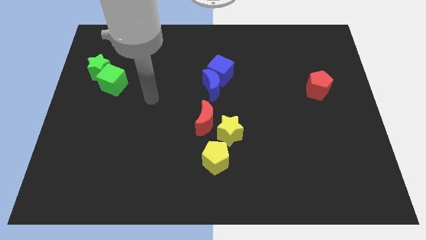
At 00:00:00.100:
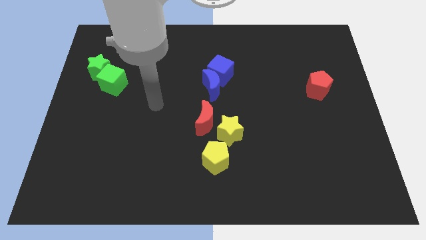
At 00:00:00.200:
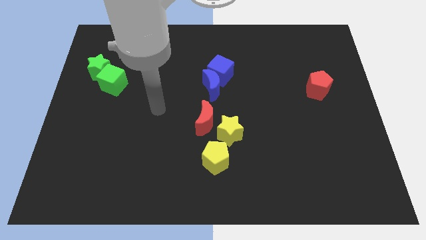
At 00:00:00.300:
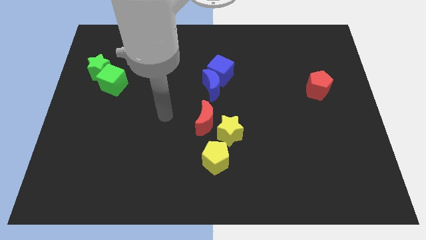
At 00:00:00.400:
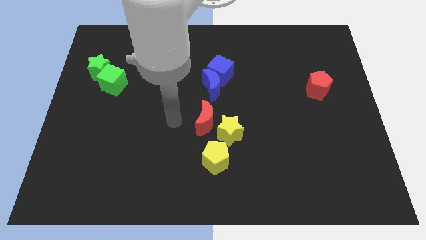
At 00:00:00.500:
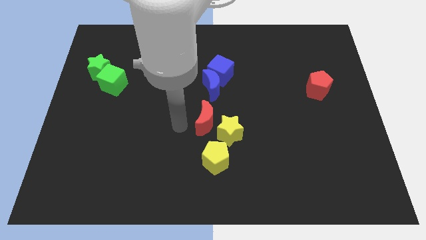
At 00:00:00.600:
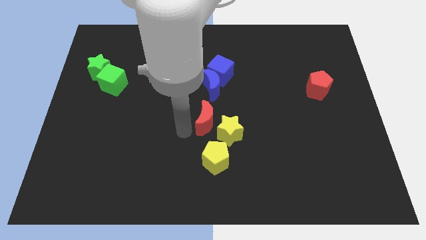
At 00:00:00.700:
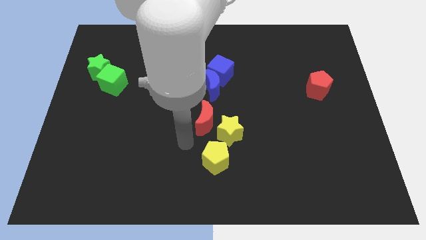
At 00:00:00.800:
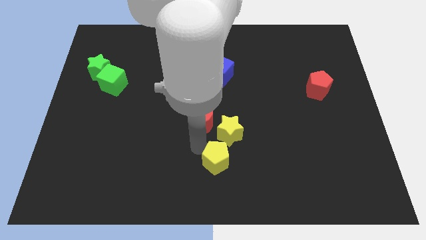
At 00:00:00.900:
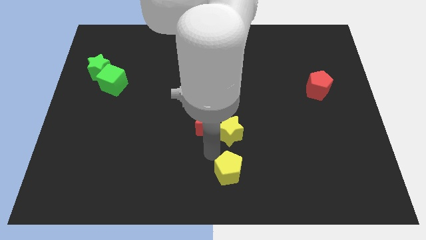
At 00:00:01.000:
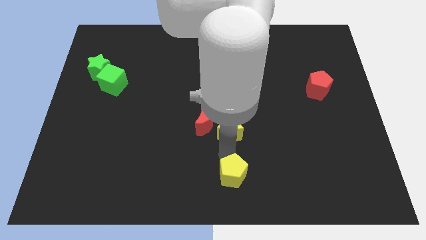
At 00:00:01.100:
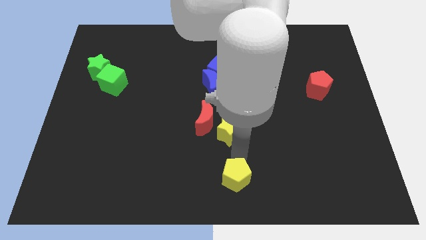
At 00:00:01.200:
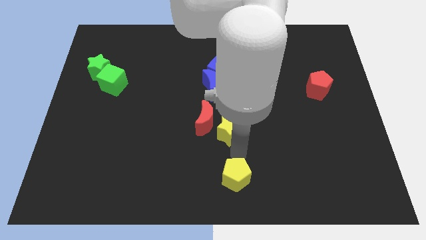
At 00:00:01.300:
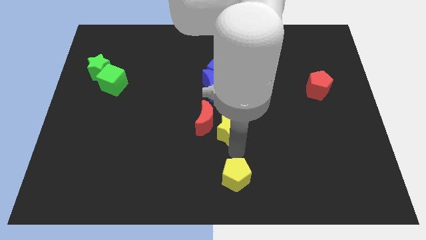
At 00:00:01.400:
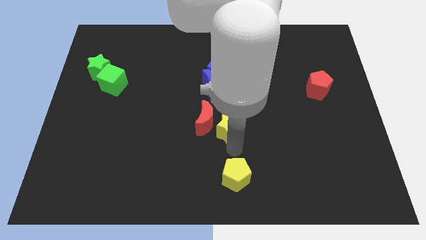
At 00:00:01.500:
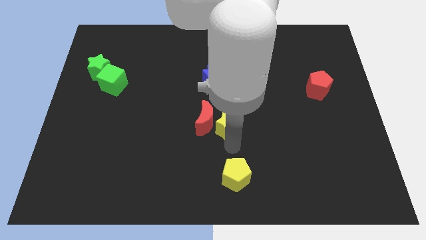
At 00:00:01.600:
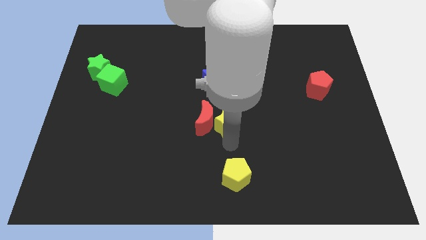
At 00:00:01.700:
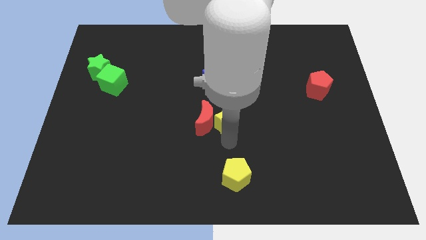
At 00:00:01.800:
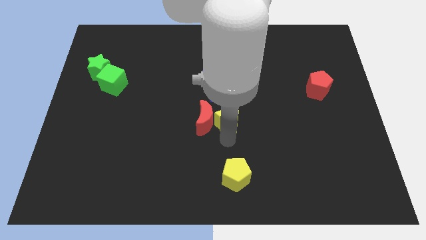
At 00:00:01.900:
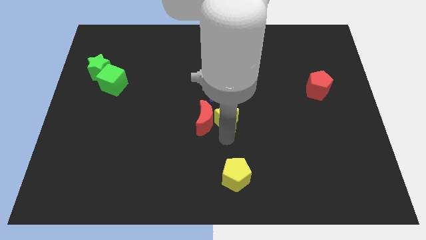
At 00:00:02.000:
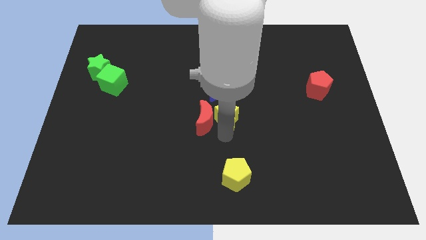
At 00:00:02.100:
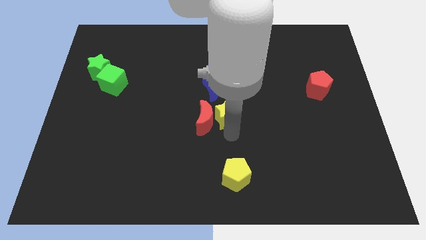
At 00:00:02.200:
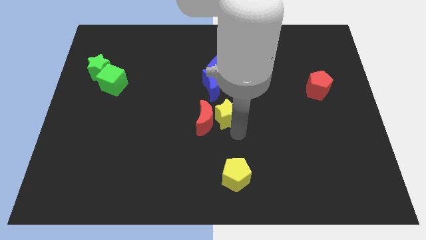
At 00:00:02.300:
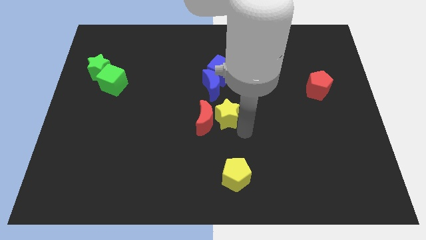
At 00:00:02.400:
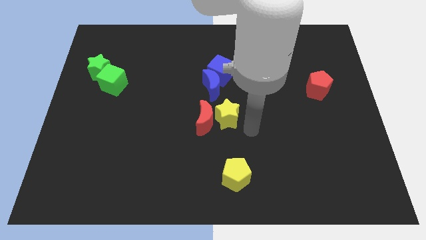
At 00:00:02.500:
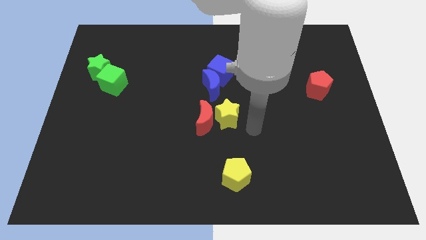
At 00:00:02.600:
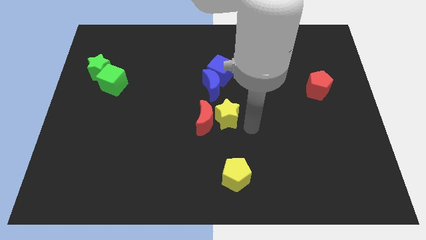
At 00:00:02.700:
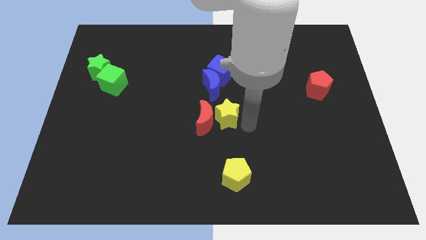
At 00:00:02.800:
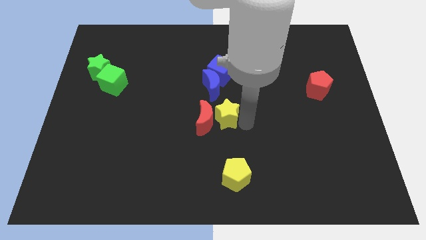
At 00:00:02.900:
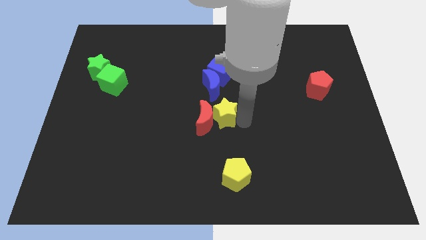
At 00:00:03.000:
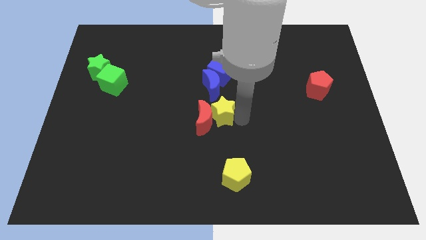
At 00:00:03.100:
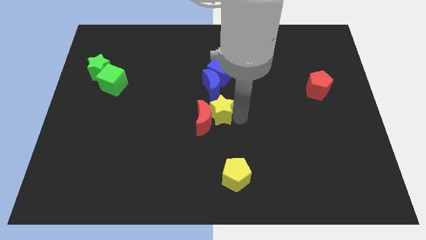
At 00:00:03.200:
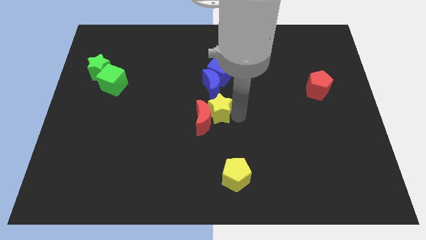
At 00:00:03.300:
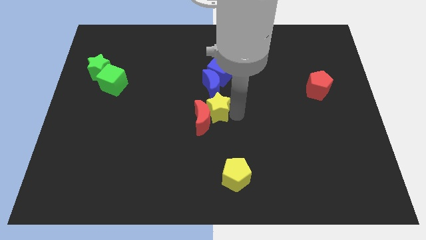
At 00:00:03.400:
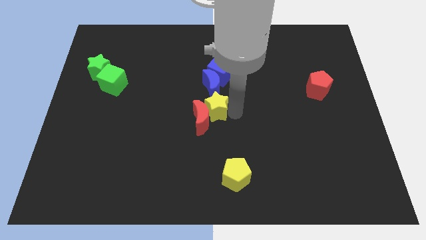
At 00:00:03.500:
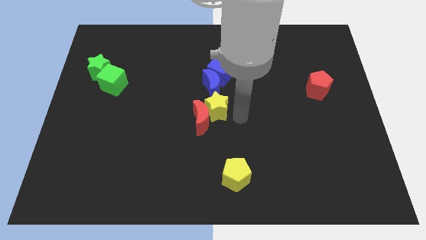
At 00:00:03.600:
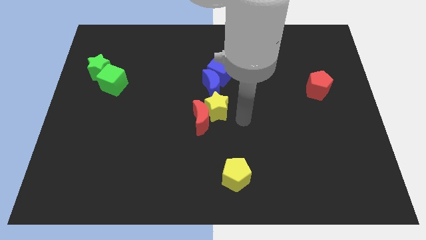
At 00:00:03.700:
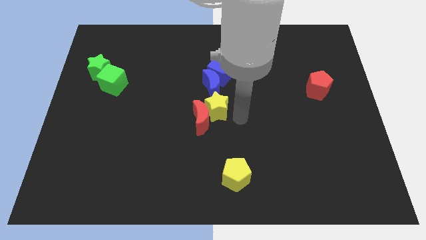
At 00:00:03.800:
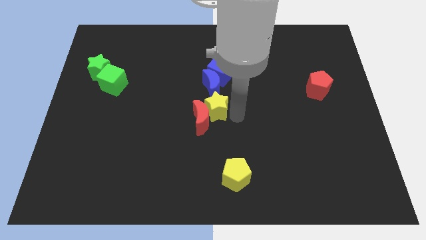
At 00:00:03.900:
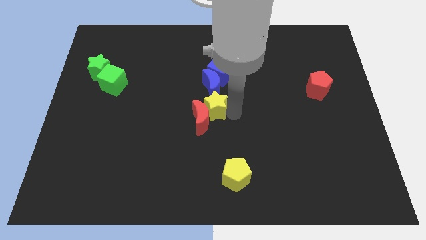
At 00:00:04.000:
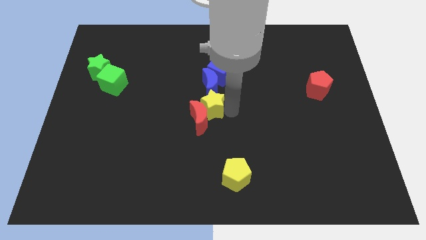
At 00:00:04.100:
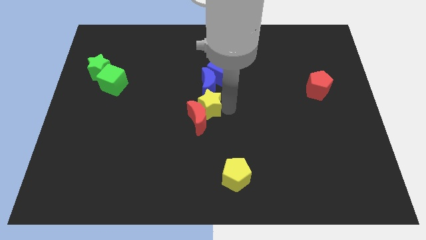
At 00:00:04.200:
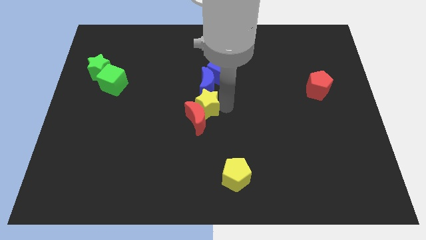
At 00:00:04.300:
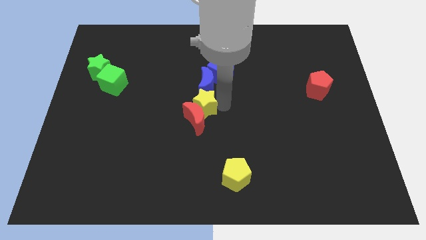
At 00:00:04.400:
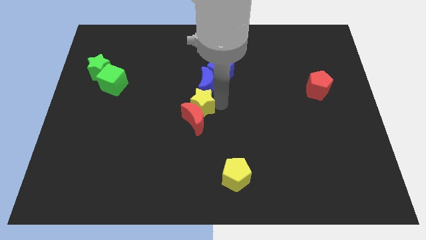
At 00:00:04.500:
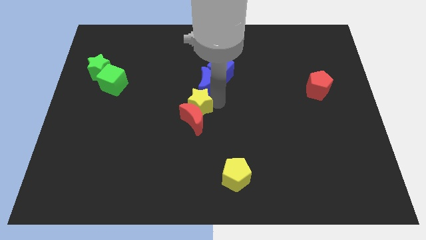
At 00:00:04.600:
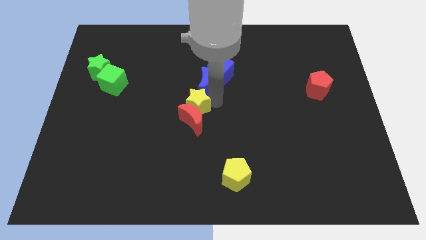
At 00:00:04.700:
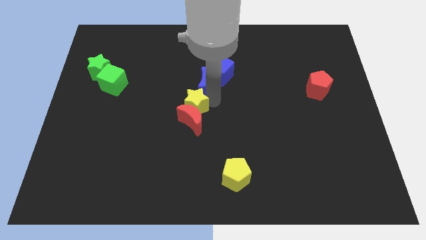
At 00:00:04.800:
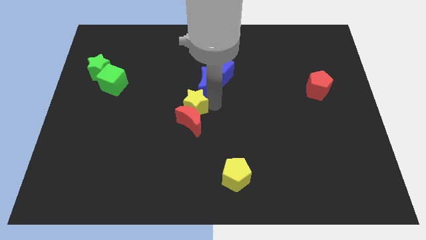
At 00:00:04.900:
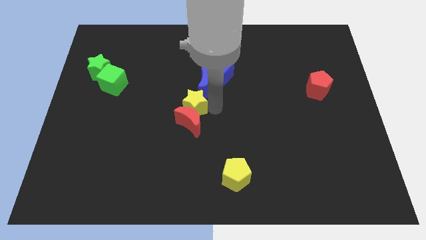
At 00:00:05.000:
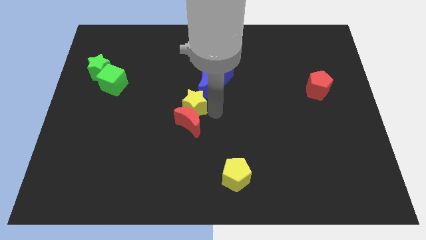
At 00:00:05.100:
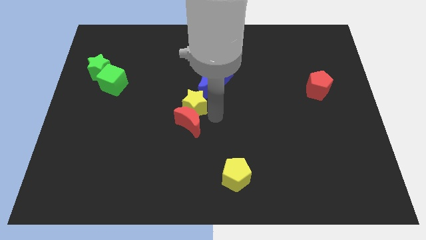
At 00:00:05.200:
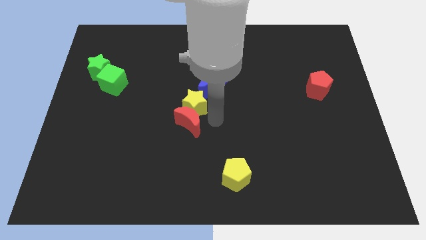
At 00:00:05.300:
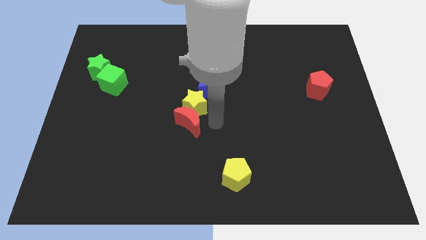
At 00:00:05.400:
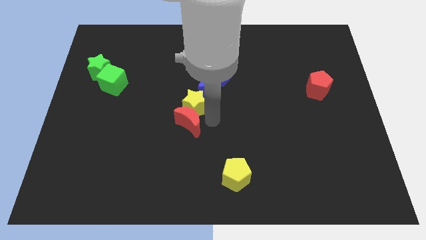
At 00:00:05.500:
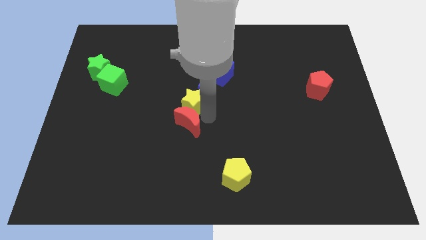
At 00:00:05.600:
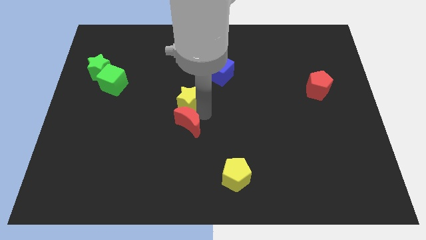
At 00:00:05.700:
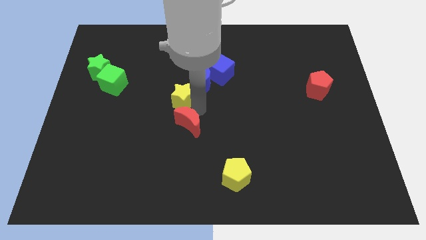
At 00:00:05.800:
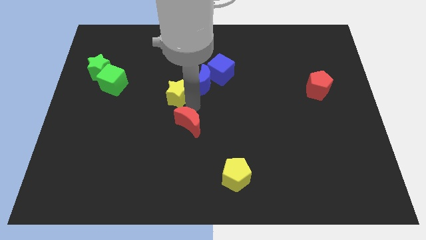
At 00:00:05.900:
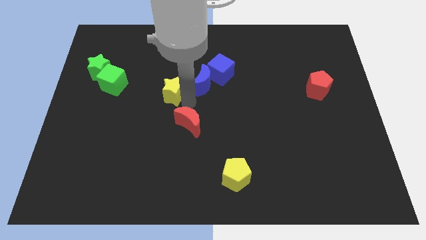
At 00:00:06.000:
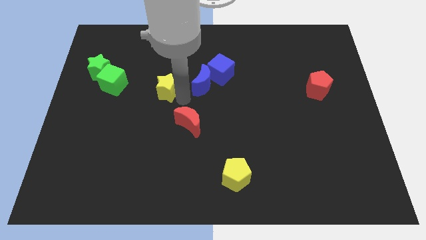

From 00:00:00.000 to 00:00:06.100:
slide the yellow star just right of the green cube

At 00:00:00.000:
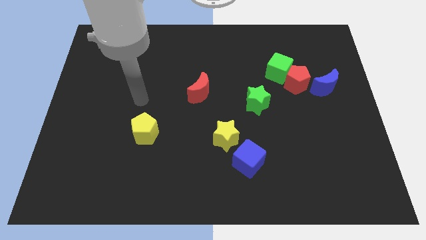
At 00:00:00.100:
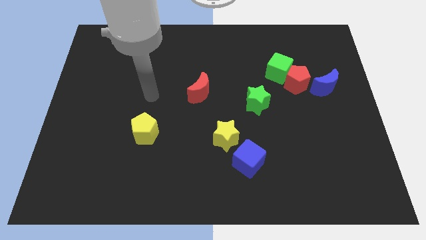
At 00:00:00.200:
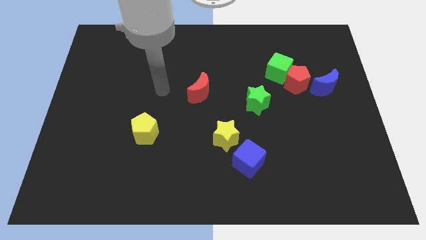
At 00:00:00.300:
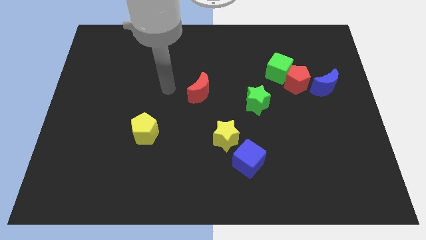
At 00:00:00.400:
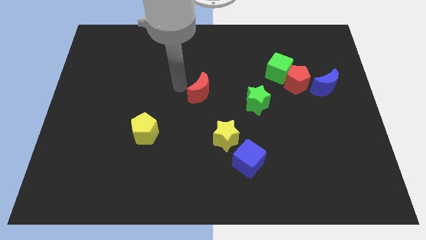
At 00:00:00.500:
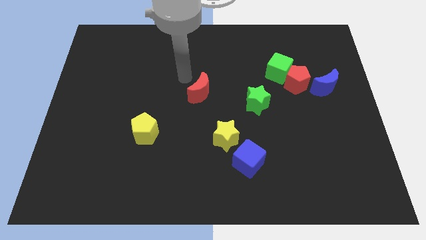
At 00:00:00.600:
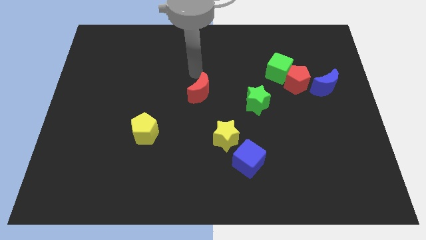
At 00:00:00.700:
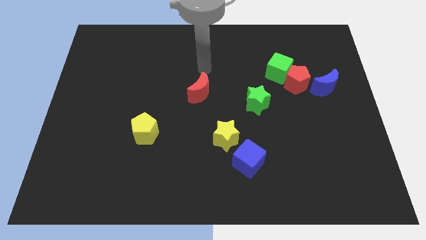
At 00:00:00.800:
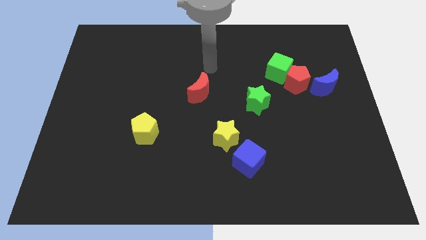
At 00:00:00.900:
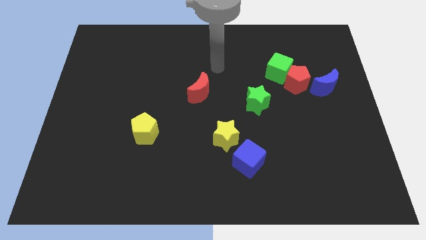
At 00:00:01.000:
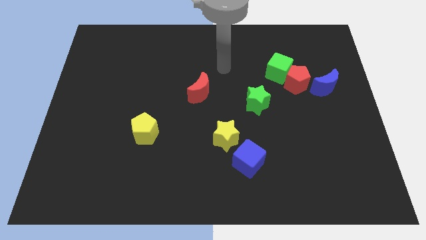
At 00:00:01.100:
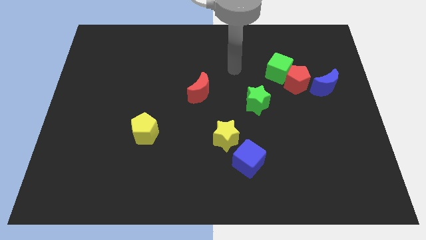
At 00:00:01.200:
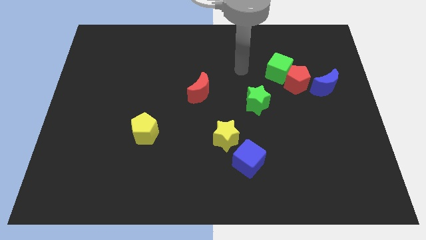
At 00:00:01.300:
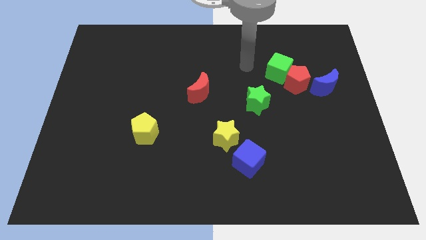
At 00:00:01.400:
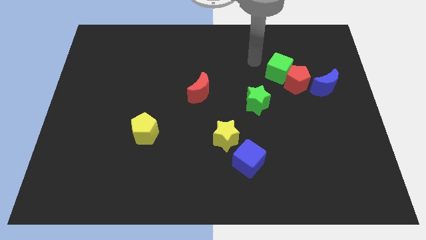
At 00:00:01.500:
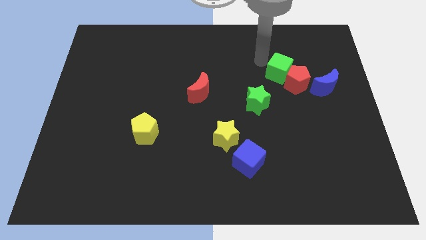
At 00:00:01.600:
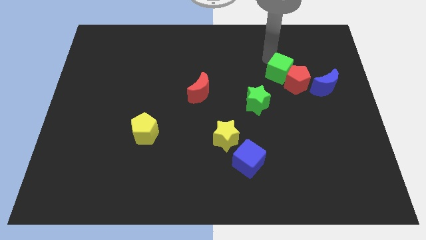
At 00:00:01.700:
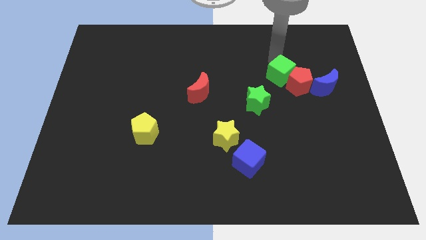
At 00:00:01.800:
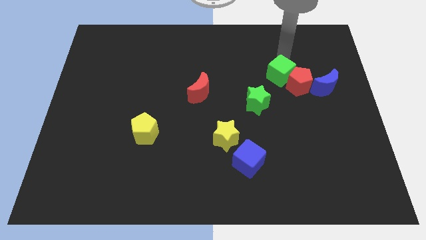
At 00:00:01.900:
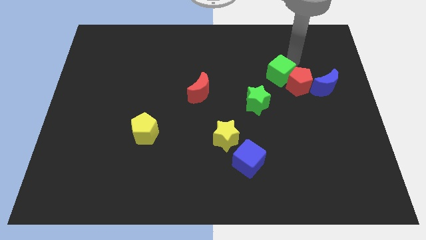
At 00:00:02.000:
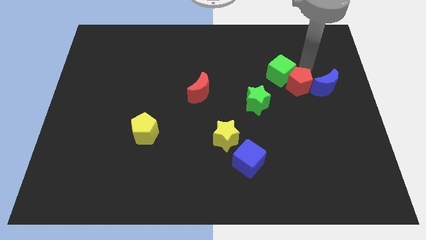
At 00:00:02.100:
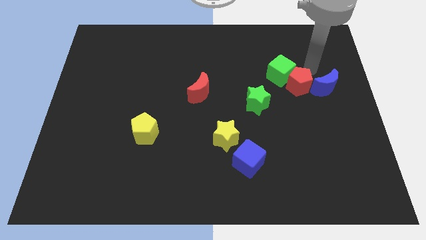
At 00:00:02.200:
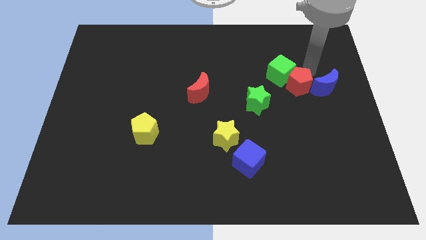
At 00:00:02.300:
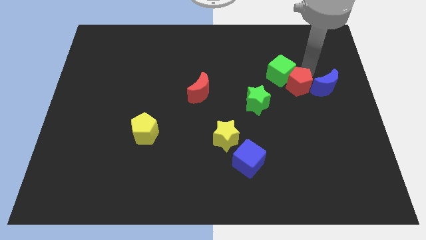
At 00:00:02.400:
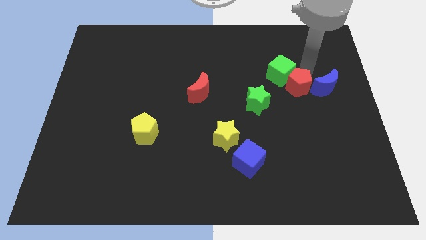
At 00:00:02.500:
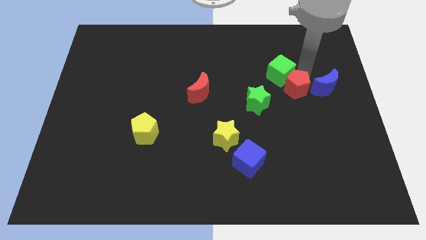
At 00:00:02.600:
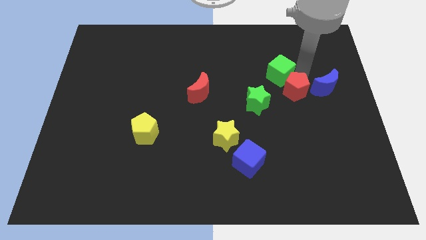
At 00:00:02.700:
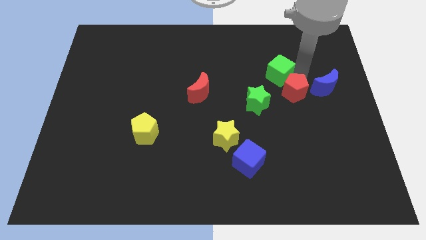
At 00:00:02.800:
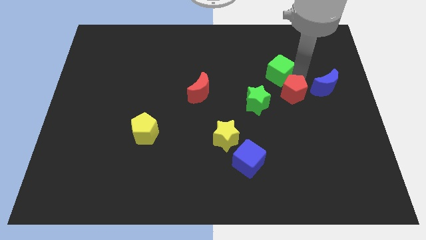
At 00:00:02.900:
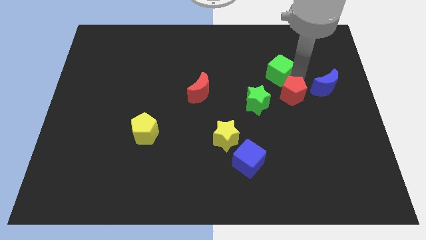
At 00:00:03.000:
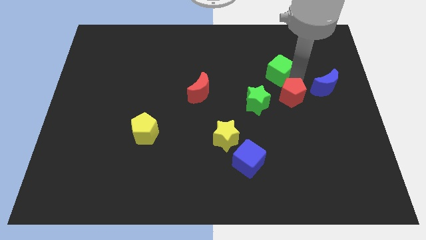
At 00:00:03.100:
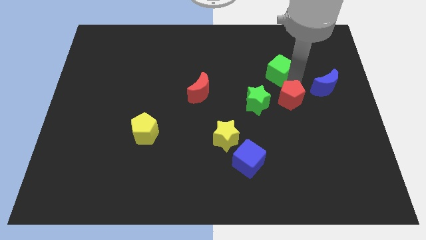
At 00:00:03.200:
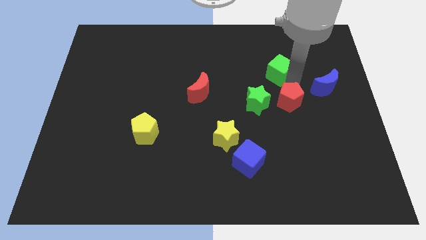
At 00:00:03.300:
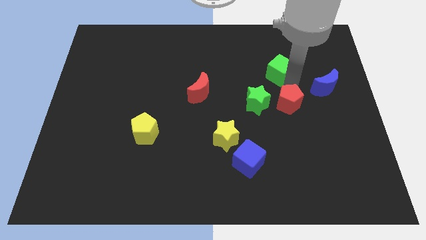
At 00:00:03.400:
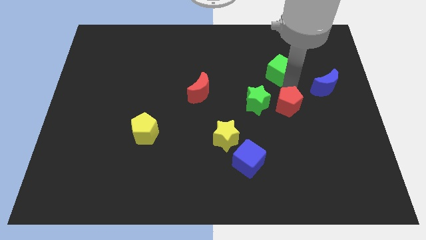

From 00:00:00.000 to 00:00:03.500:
slide the red pentagon diagonally down and to the right of the green star
